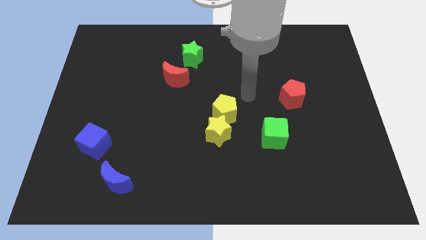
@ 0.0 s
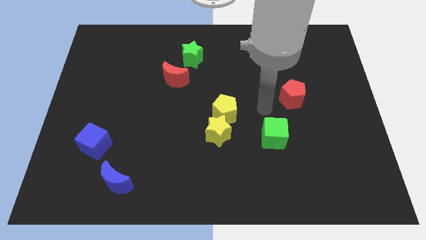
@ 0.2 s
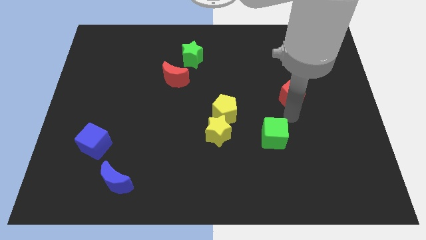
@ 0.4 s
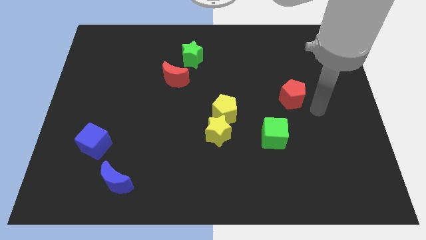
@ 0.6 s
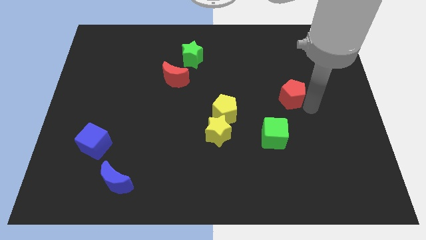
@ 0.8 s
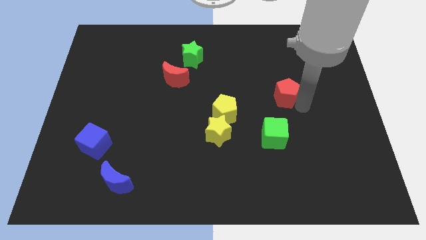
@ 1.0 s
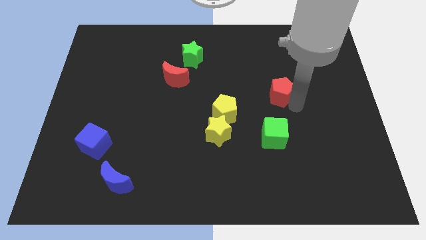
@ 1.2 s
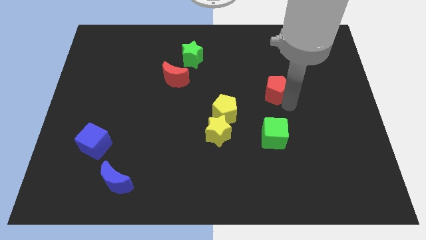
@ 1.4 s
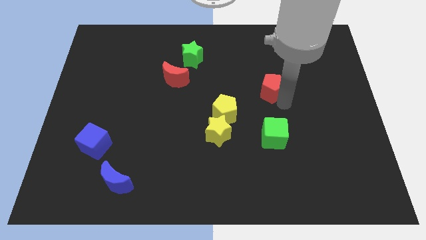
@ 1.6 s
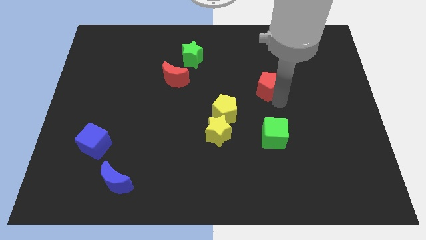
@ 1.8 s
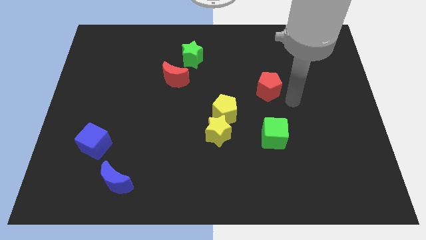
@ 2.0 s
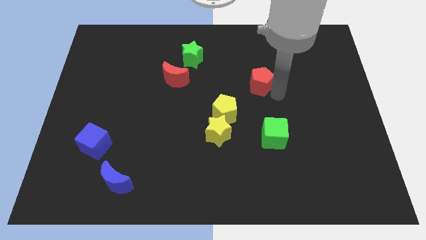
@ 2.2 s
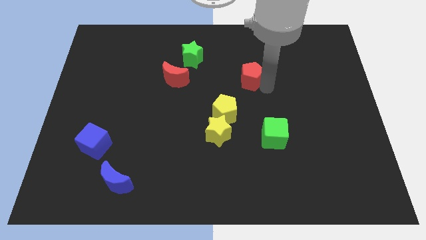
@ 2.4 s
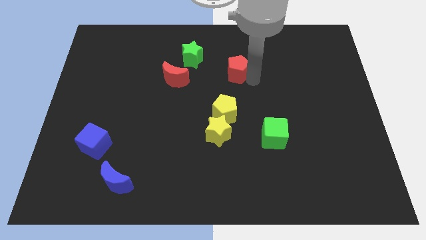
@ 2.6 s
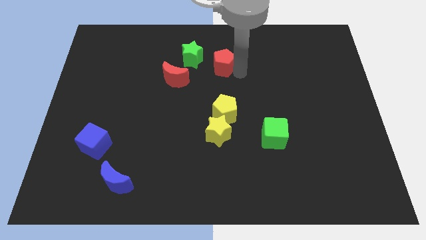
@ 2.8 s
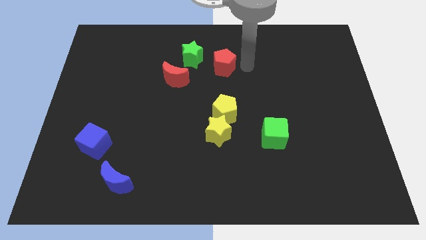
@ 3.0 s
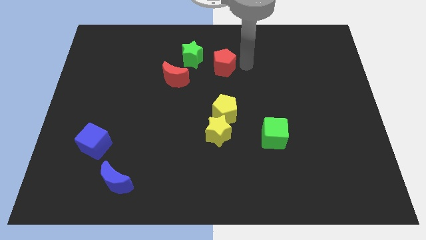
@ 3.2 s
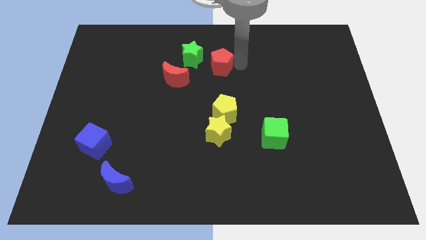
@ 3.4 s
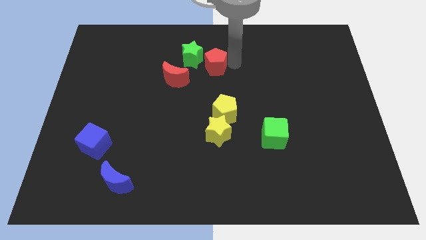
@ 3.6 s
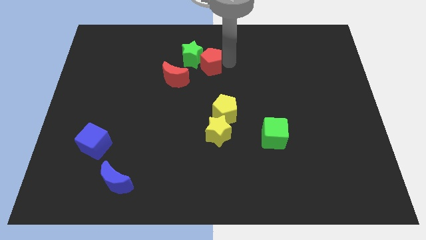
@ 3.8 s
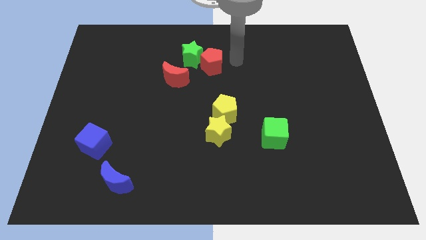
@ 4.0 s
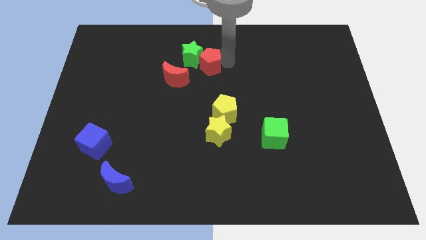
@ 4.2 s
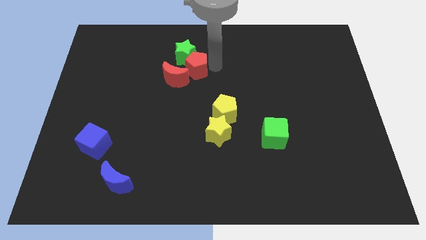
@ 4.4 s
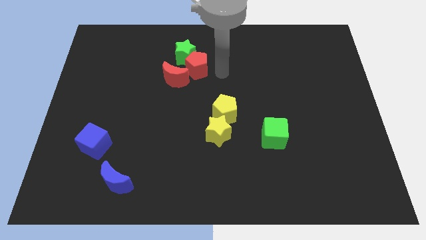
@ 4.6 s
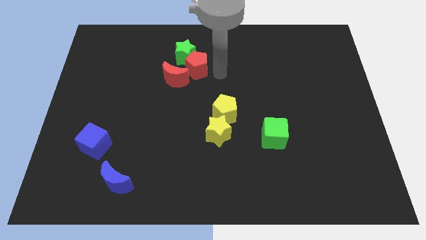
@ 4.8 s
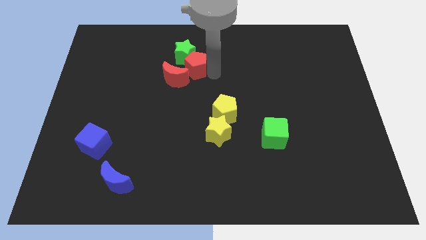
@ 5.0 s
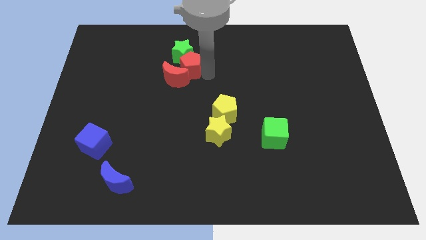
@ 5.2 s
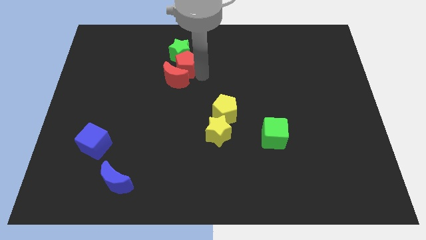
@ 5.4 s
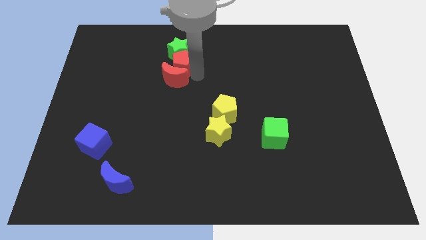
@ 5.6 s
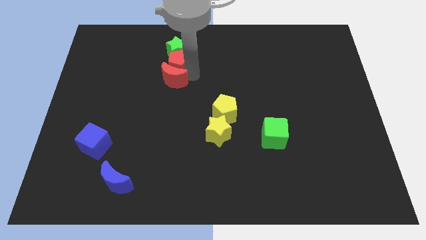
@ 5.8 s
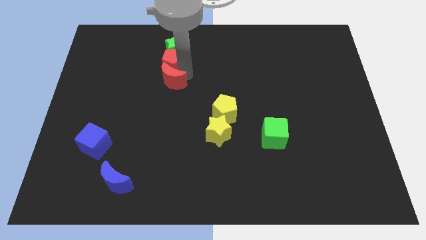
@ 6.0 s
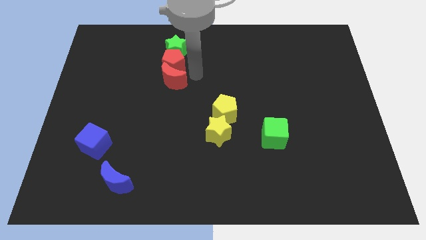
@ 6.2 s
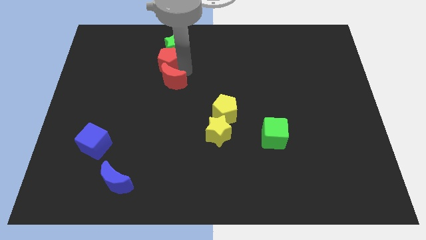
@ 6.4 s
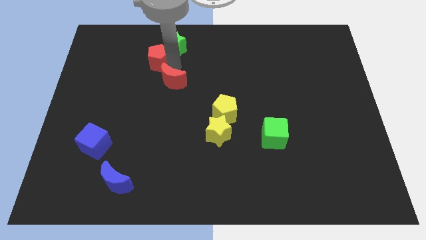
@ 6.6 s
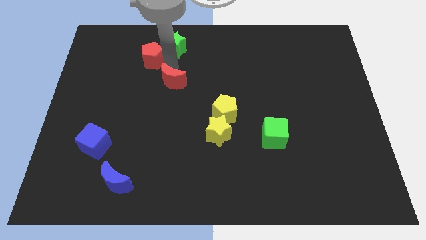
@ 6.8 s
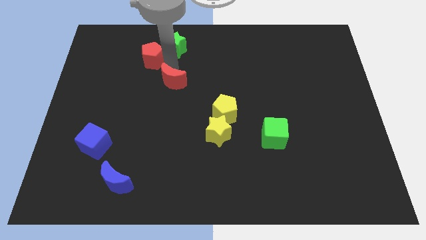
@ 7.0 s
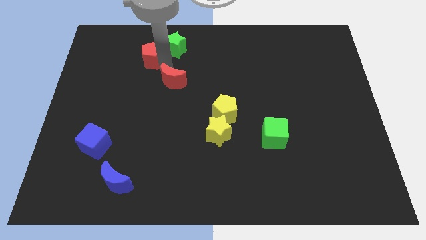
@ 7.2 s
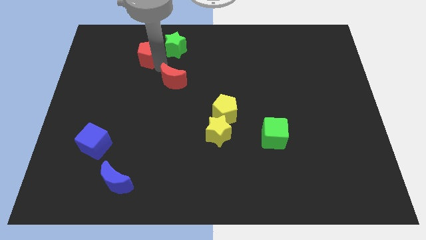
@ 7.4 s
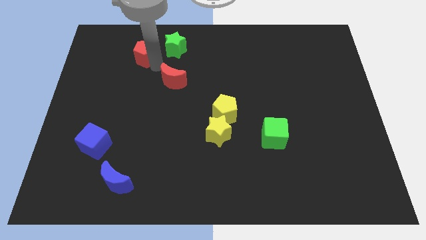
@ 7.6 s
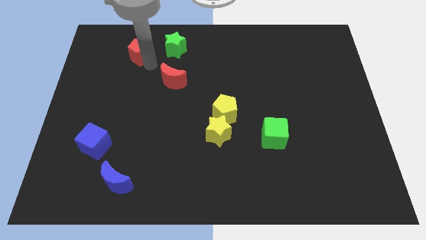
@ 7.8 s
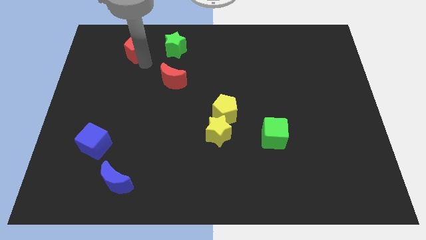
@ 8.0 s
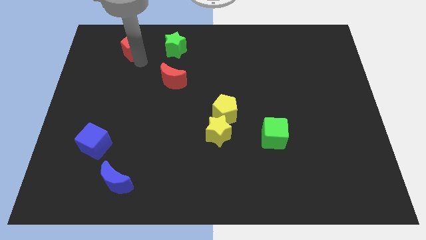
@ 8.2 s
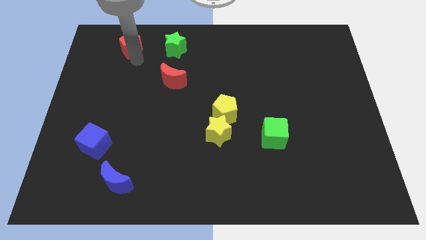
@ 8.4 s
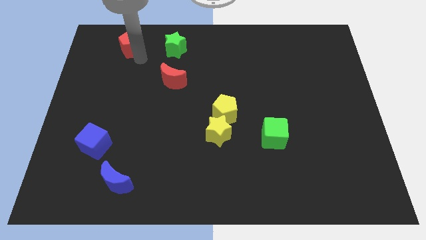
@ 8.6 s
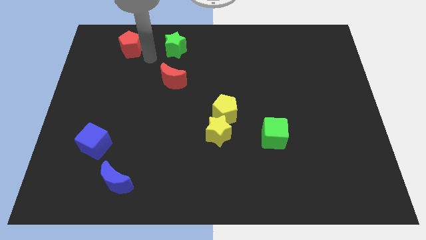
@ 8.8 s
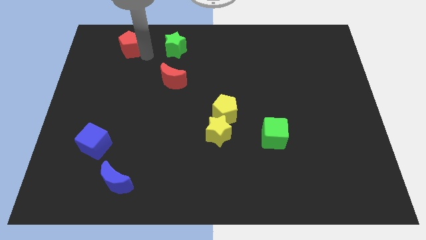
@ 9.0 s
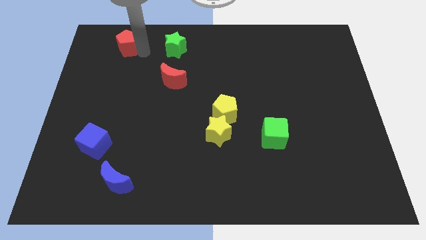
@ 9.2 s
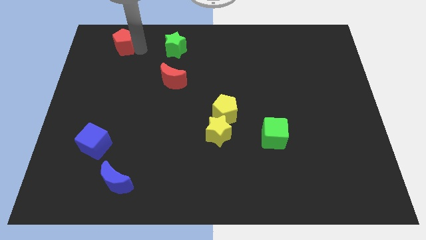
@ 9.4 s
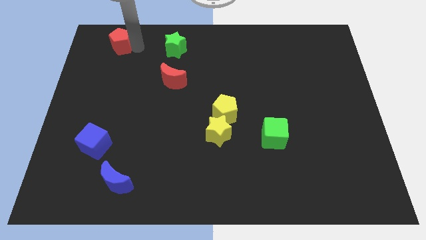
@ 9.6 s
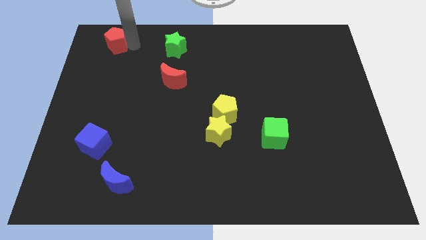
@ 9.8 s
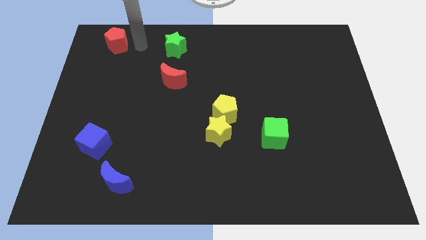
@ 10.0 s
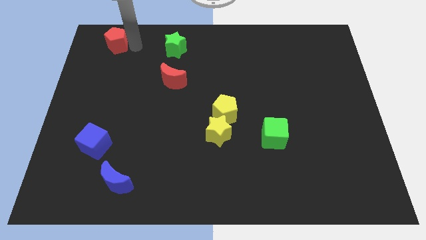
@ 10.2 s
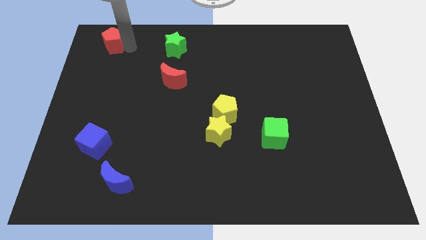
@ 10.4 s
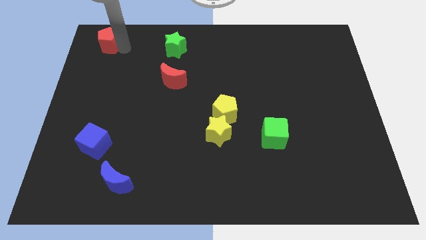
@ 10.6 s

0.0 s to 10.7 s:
move the red pentagon to the upper left corner

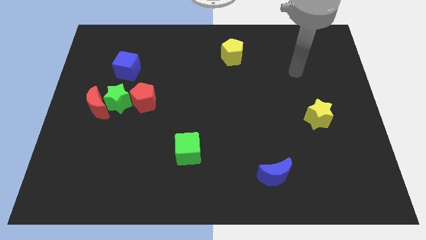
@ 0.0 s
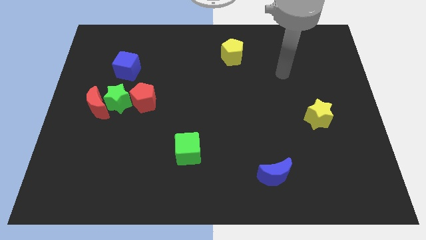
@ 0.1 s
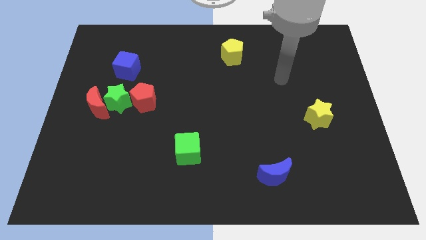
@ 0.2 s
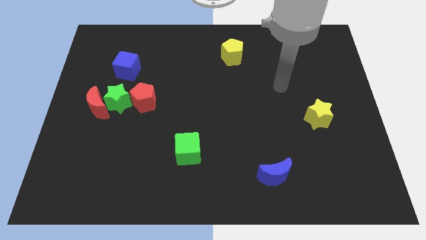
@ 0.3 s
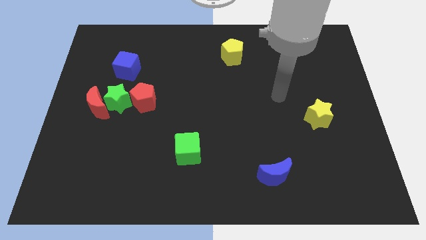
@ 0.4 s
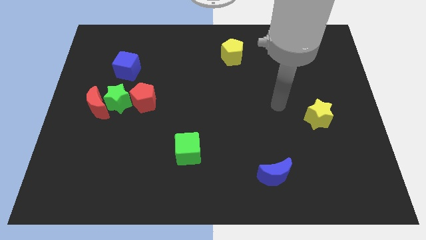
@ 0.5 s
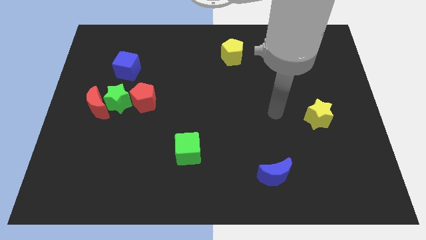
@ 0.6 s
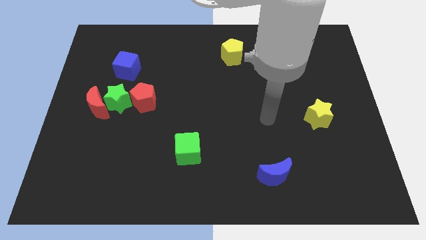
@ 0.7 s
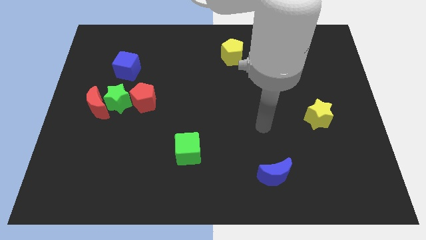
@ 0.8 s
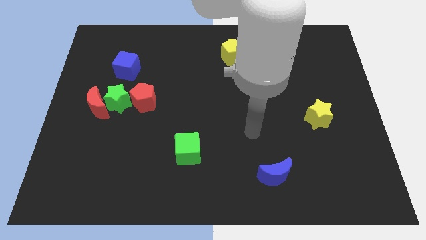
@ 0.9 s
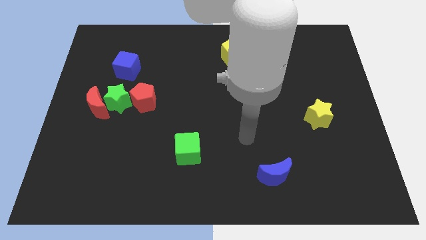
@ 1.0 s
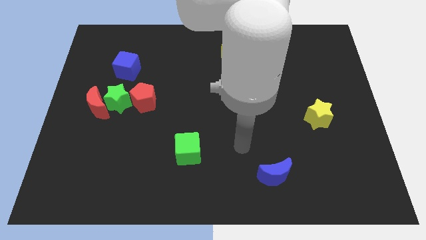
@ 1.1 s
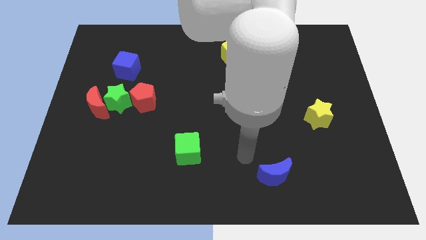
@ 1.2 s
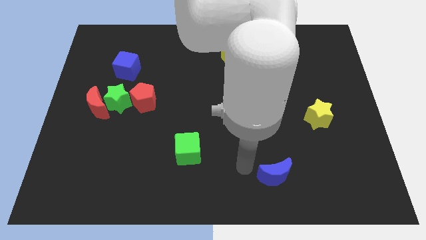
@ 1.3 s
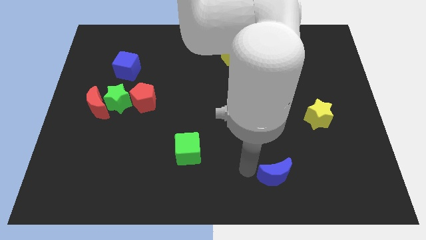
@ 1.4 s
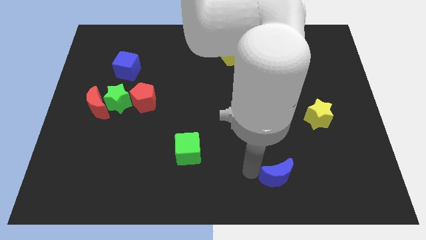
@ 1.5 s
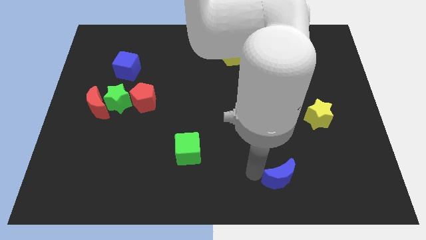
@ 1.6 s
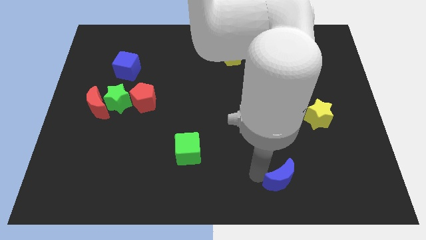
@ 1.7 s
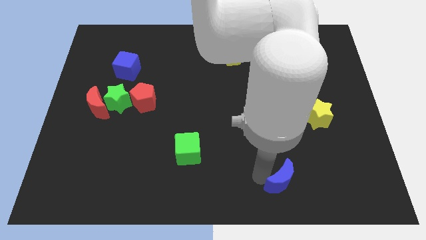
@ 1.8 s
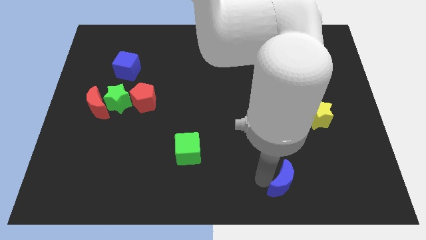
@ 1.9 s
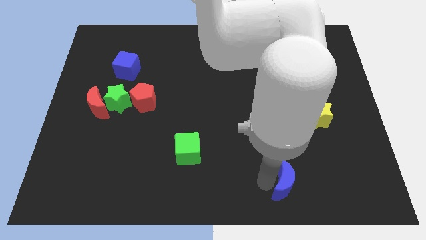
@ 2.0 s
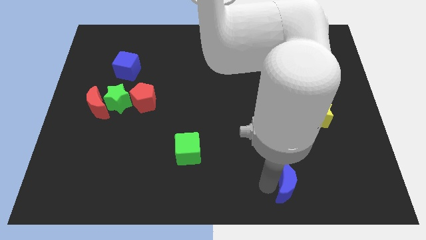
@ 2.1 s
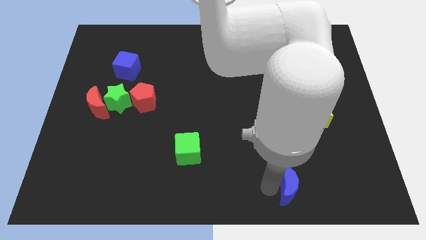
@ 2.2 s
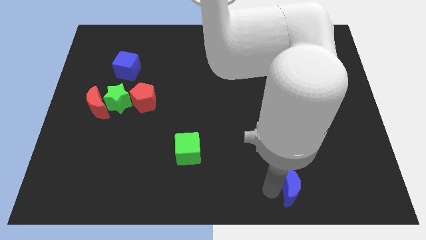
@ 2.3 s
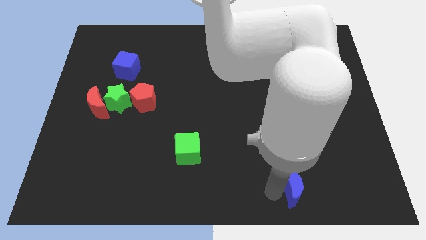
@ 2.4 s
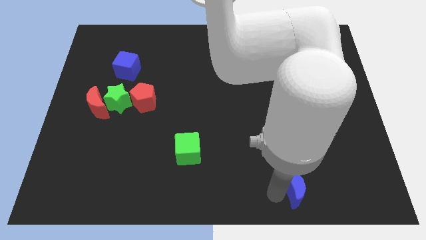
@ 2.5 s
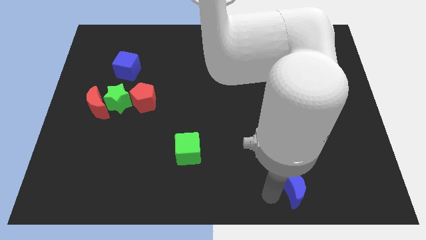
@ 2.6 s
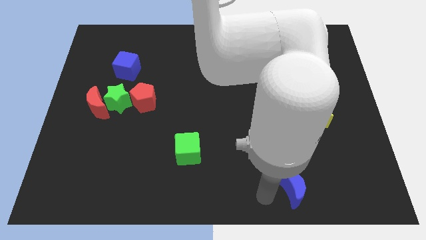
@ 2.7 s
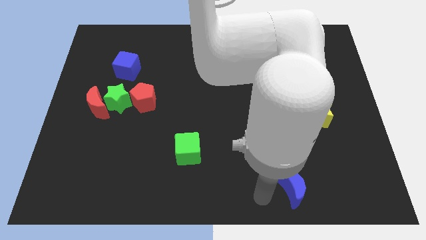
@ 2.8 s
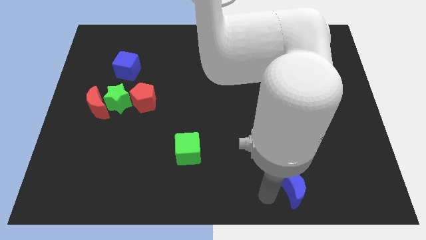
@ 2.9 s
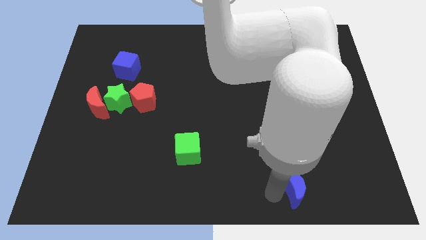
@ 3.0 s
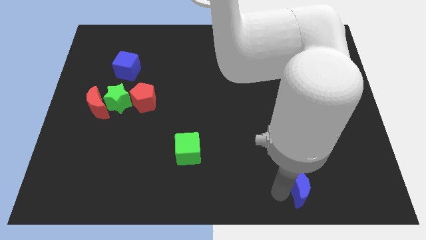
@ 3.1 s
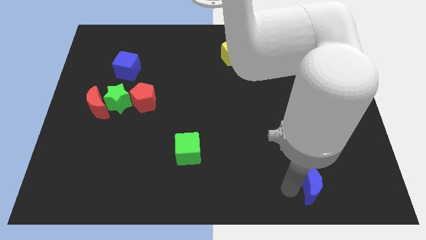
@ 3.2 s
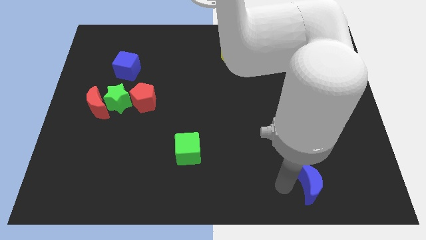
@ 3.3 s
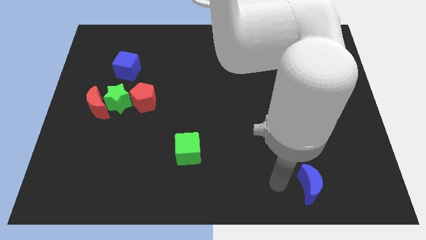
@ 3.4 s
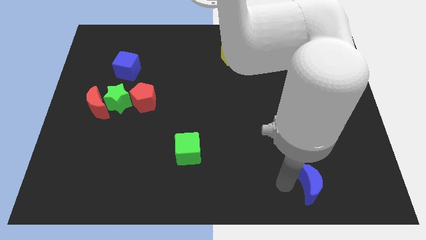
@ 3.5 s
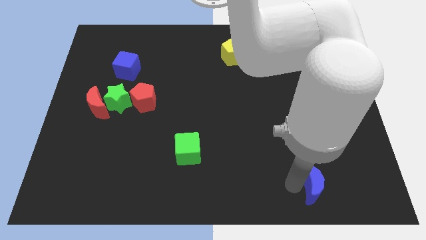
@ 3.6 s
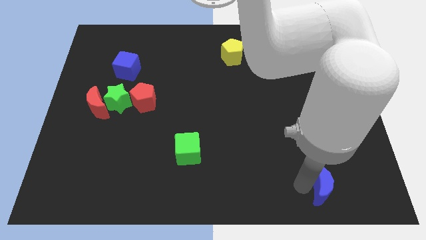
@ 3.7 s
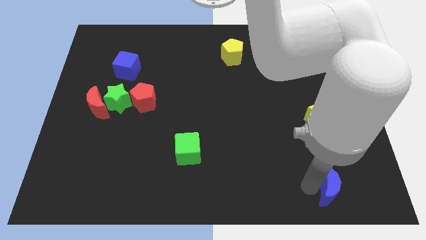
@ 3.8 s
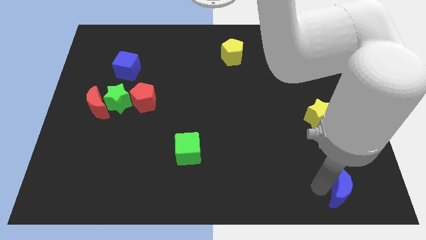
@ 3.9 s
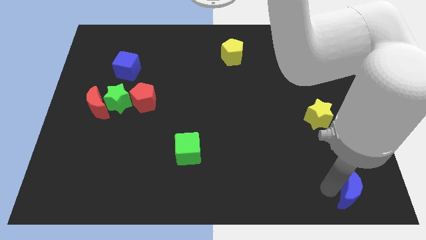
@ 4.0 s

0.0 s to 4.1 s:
slide the blue moon to the lower right corner
